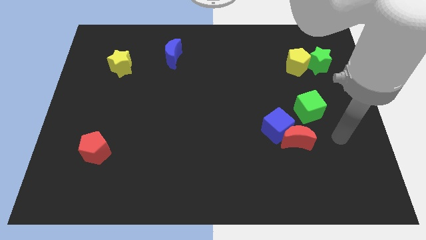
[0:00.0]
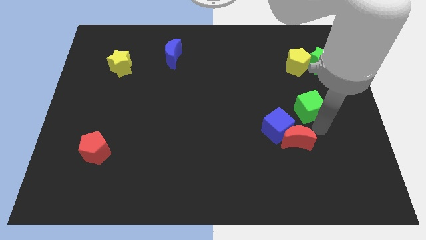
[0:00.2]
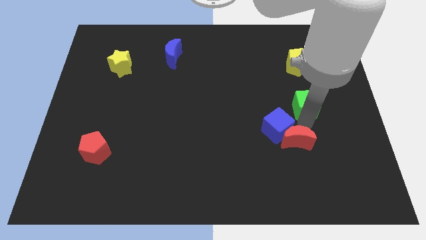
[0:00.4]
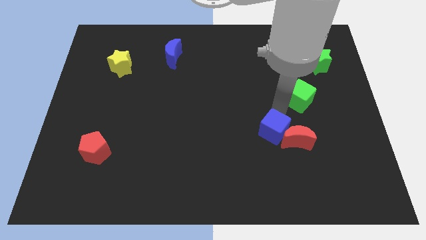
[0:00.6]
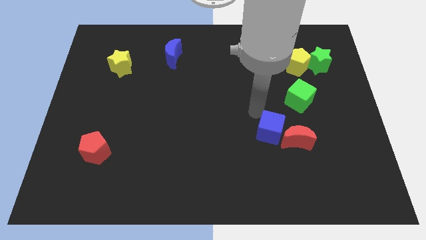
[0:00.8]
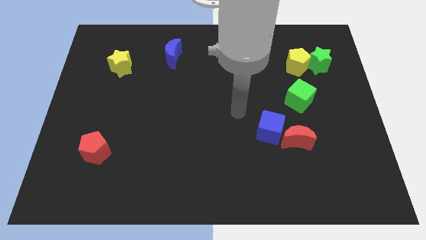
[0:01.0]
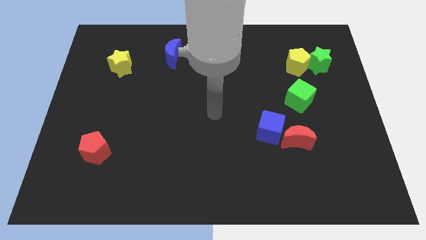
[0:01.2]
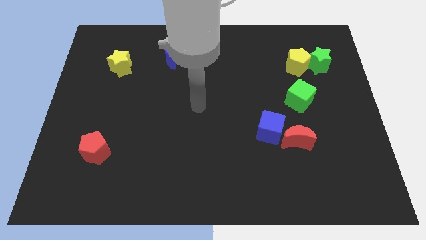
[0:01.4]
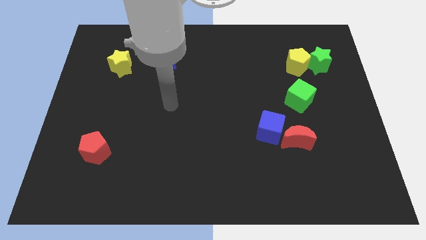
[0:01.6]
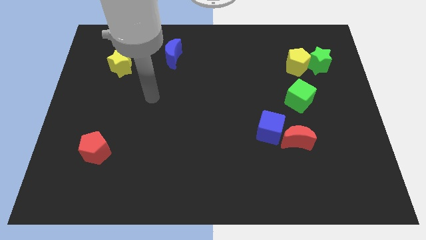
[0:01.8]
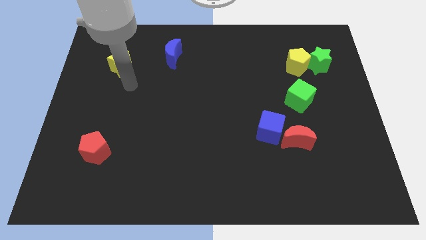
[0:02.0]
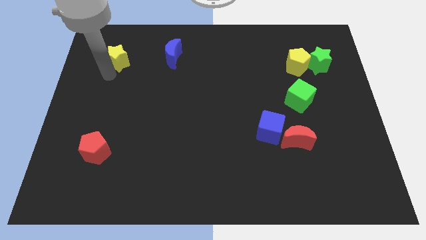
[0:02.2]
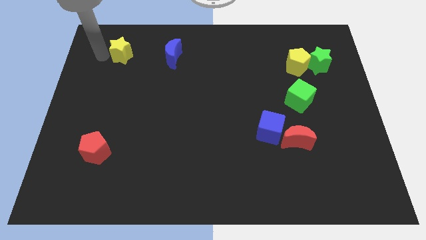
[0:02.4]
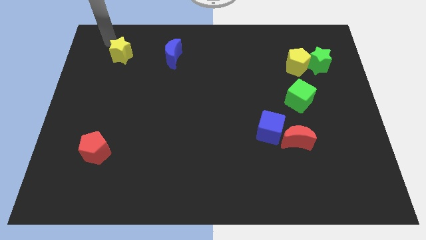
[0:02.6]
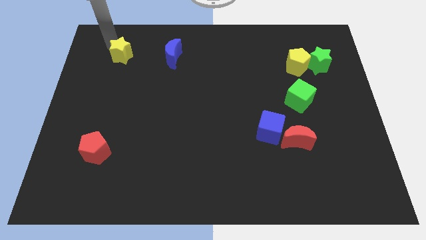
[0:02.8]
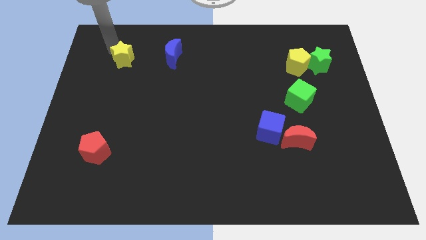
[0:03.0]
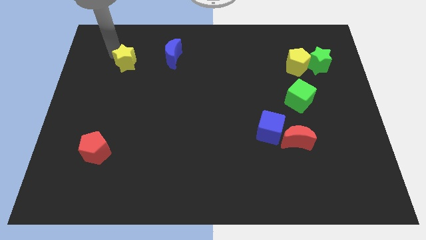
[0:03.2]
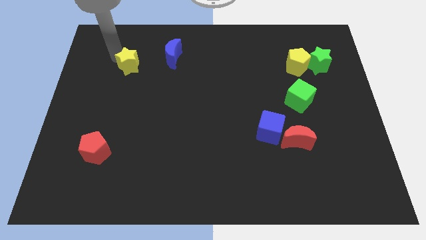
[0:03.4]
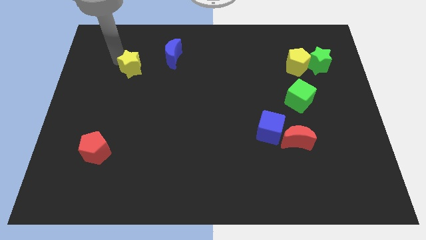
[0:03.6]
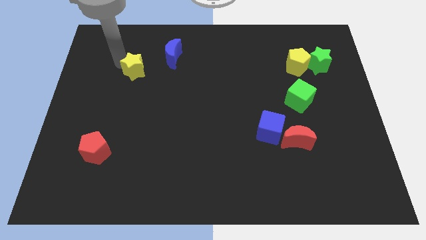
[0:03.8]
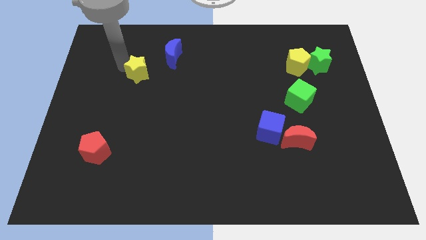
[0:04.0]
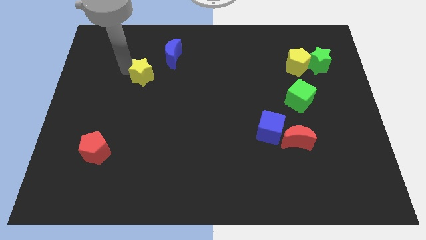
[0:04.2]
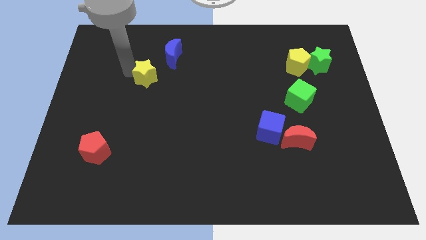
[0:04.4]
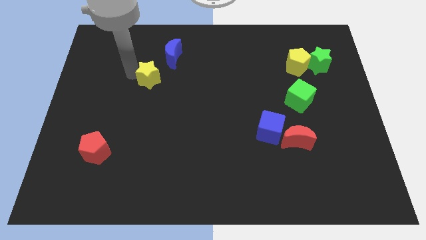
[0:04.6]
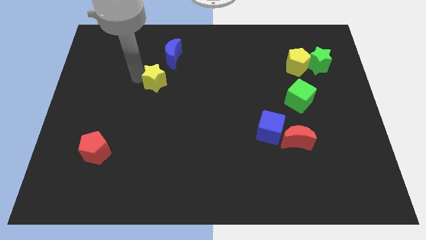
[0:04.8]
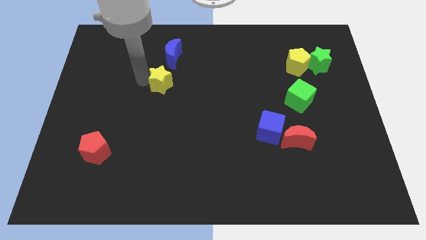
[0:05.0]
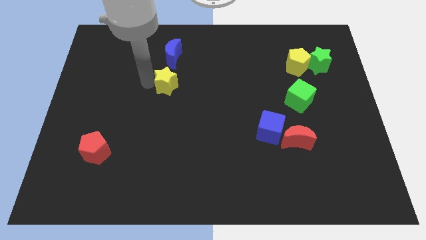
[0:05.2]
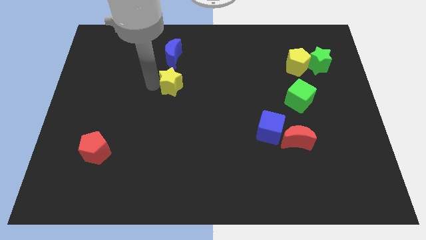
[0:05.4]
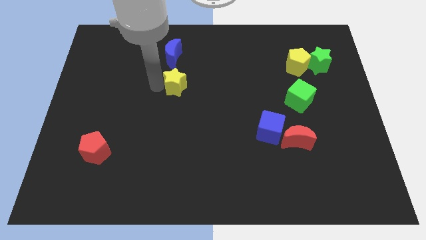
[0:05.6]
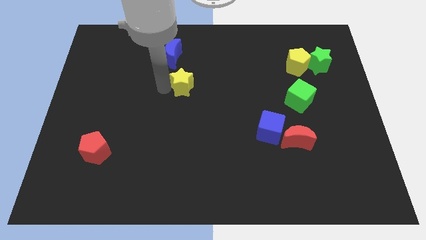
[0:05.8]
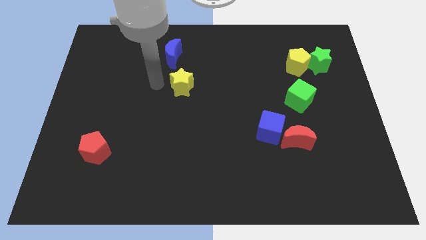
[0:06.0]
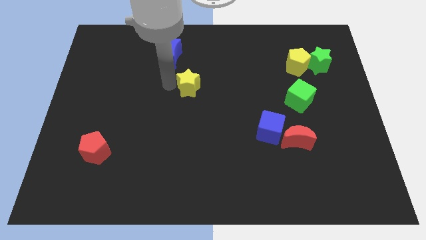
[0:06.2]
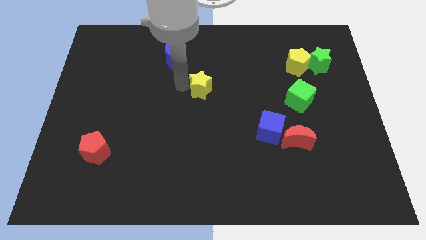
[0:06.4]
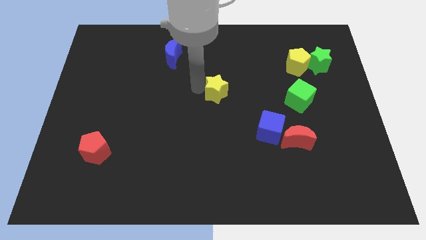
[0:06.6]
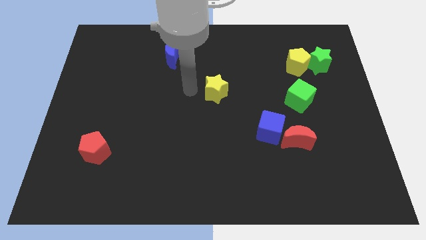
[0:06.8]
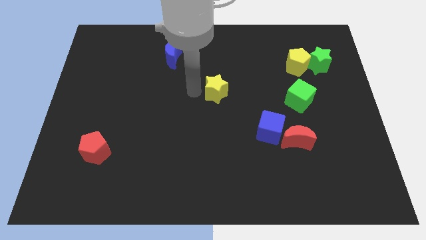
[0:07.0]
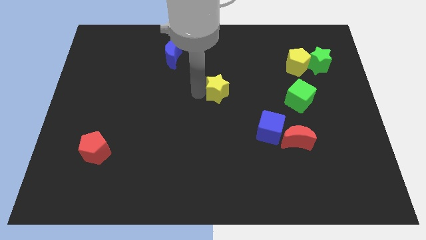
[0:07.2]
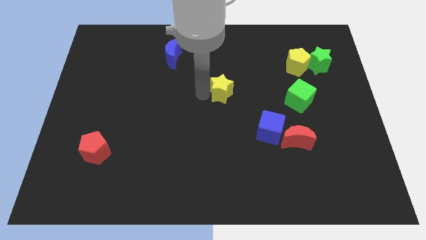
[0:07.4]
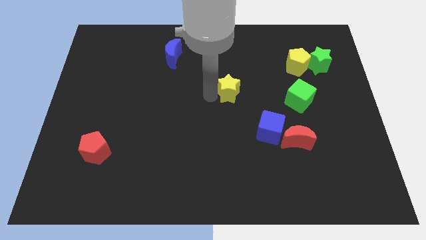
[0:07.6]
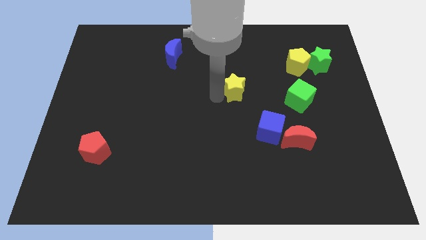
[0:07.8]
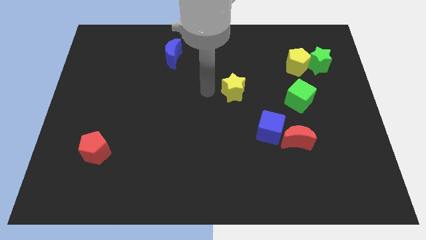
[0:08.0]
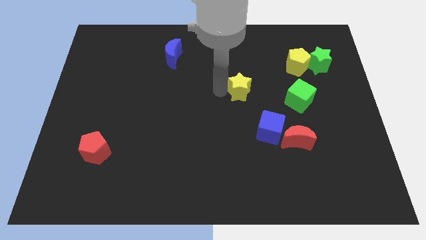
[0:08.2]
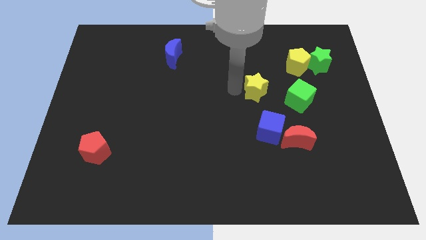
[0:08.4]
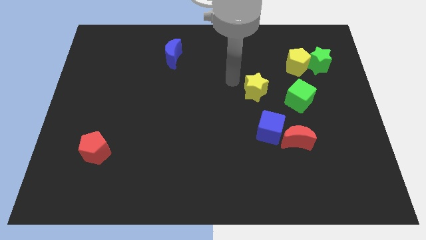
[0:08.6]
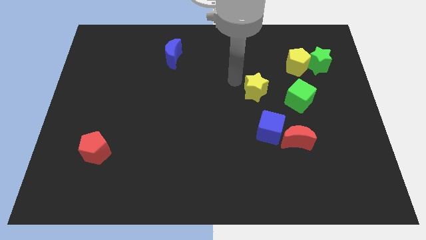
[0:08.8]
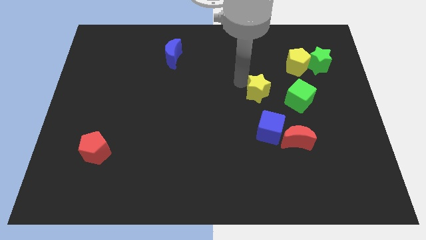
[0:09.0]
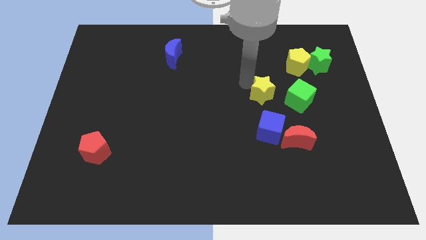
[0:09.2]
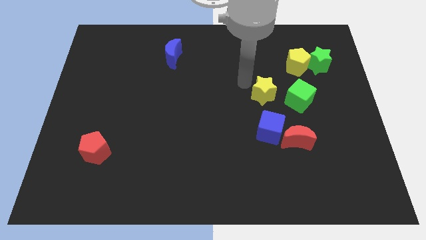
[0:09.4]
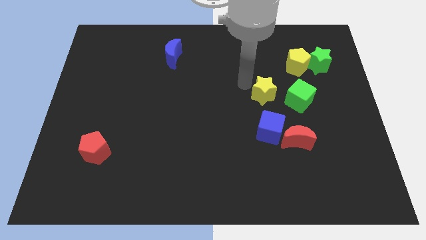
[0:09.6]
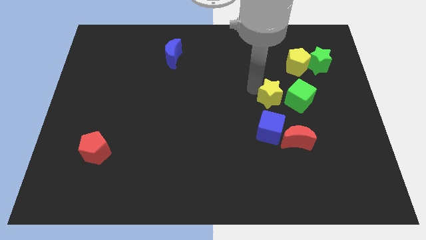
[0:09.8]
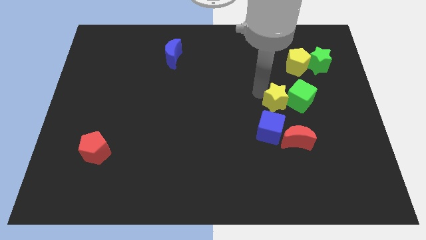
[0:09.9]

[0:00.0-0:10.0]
move the yellow star close to the green cube

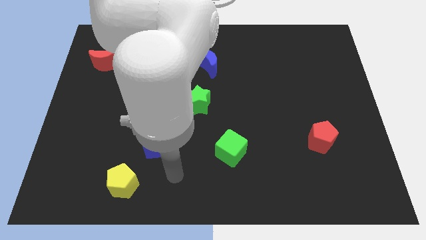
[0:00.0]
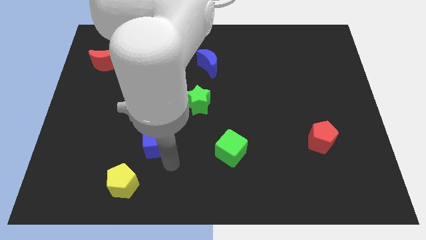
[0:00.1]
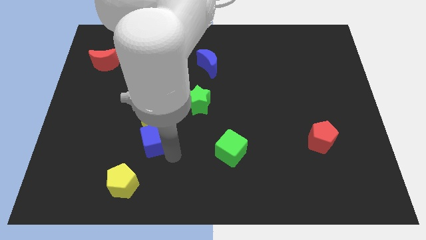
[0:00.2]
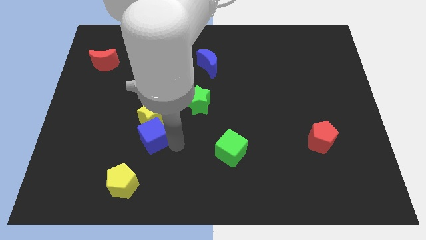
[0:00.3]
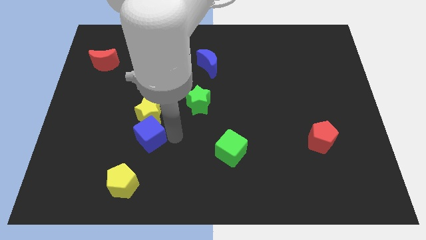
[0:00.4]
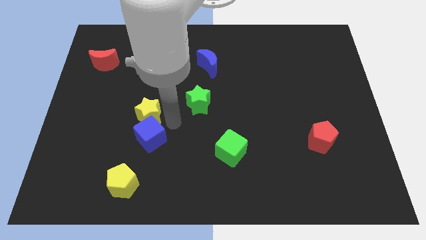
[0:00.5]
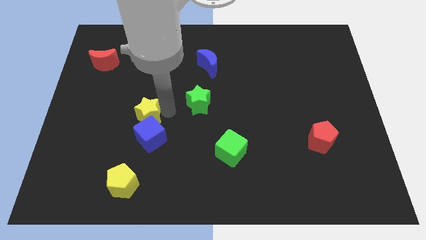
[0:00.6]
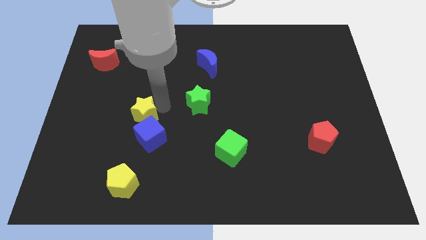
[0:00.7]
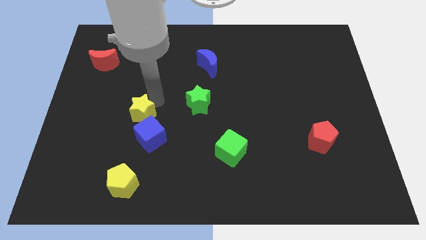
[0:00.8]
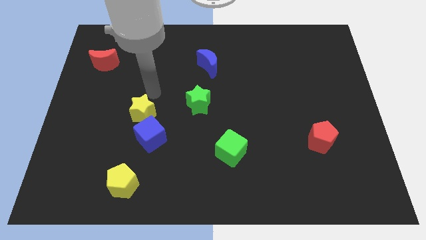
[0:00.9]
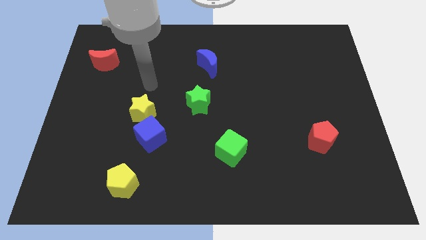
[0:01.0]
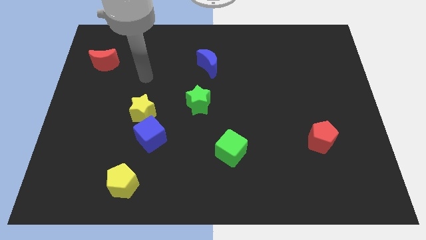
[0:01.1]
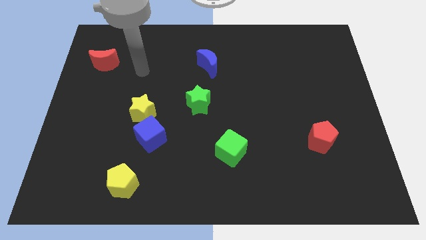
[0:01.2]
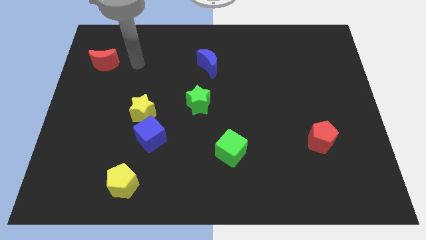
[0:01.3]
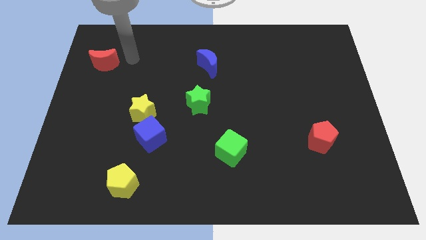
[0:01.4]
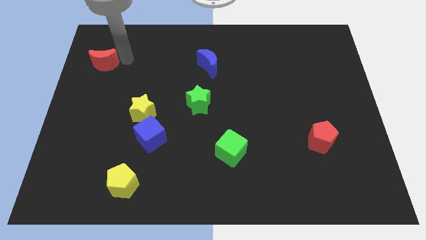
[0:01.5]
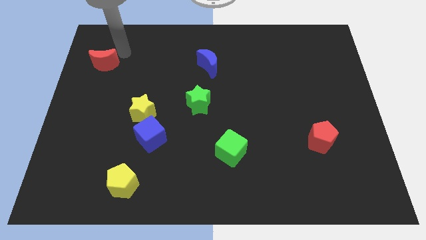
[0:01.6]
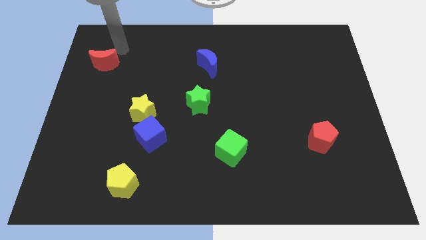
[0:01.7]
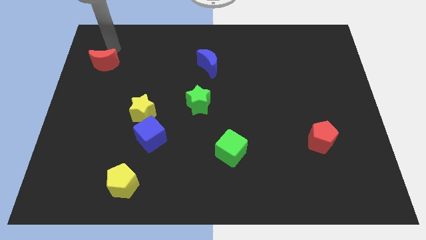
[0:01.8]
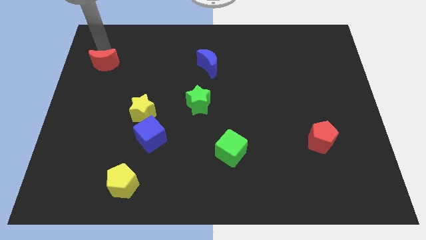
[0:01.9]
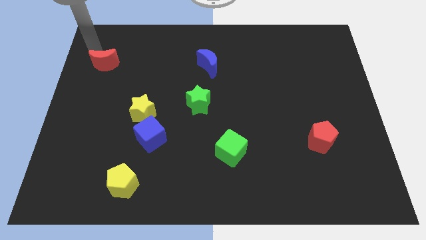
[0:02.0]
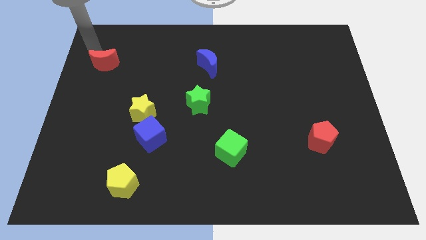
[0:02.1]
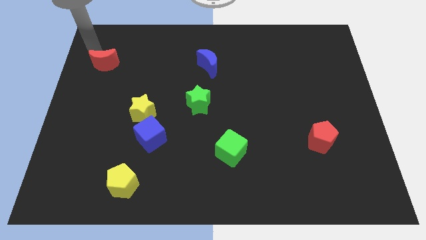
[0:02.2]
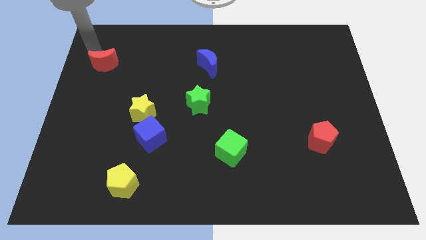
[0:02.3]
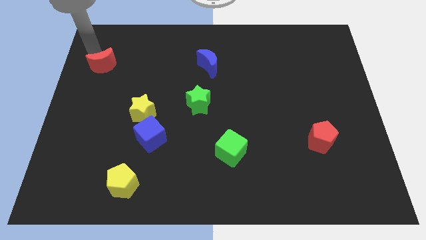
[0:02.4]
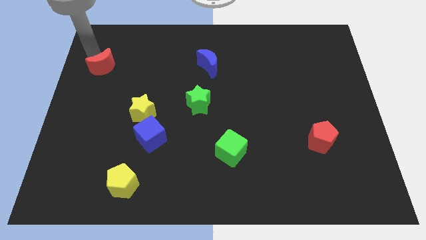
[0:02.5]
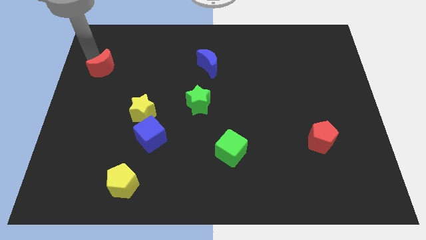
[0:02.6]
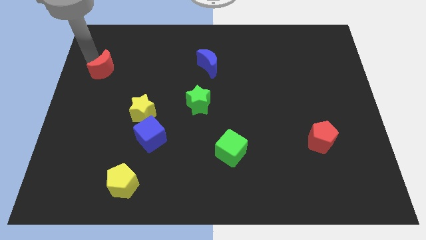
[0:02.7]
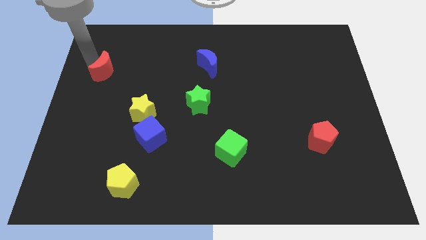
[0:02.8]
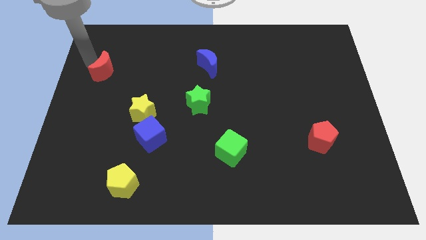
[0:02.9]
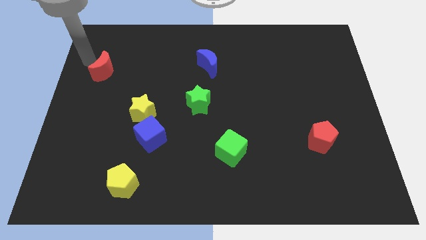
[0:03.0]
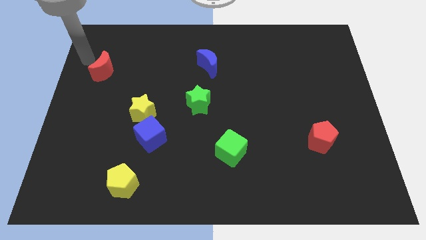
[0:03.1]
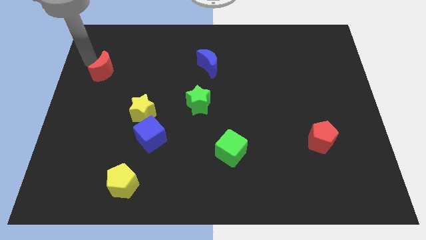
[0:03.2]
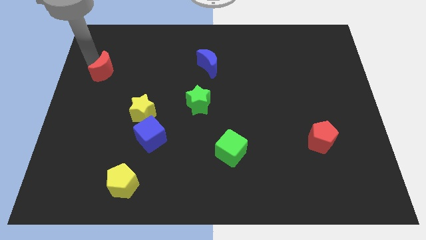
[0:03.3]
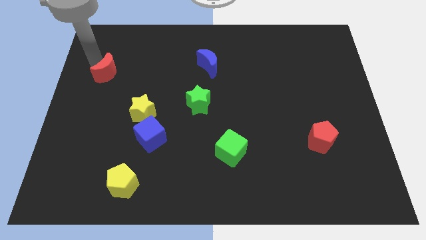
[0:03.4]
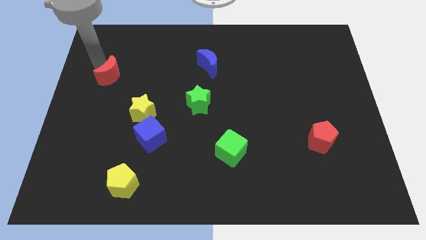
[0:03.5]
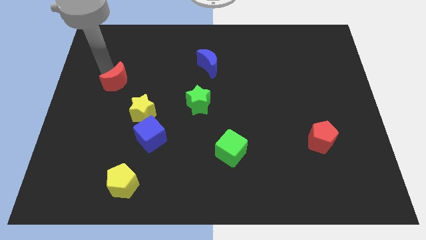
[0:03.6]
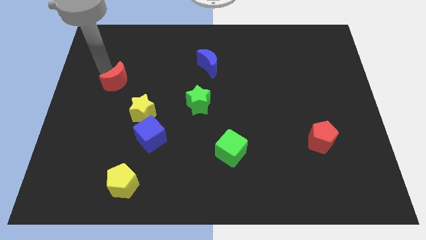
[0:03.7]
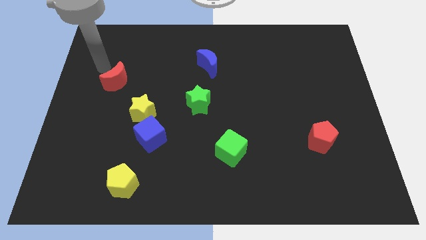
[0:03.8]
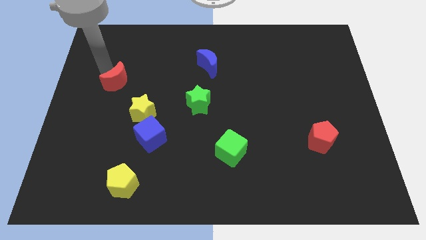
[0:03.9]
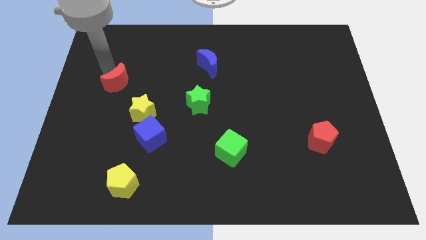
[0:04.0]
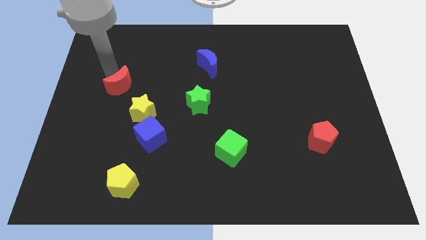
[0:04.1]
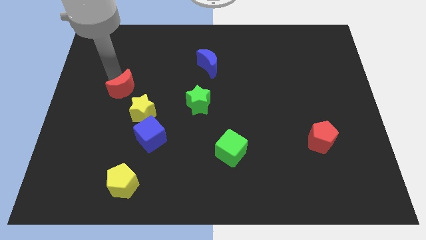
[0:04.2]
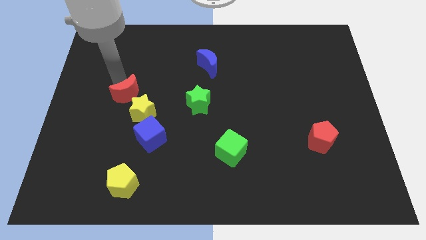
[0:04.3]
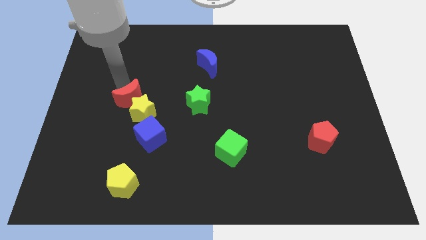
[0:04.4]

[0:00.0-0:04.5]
slide the red moon to the yellow star
